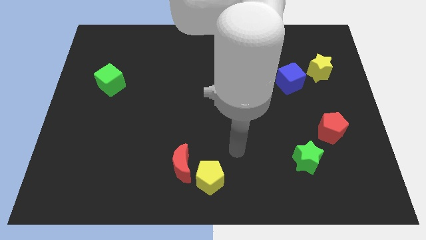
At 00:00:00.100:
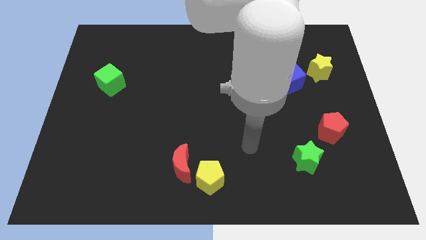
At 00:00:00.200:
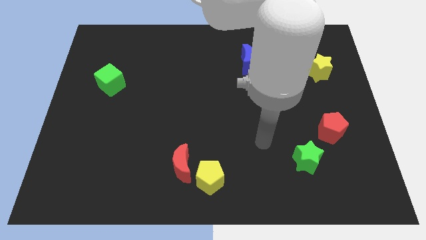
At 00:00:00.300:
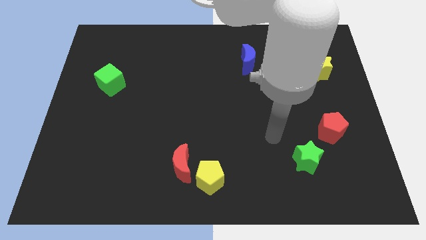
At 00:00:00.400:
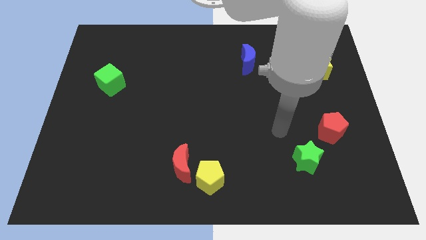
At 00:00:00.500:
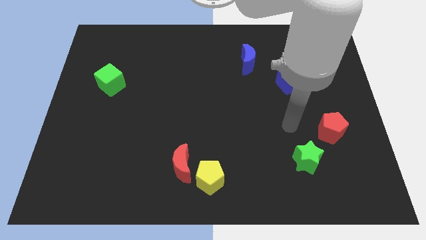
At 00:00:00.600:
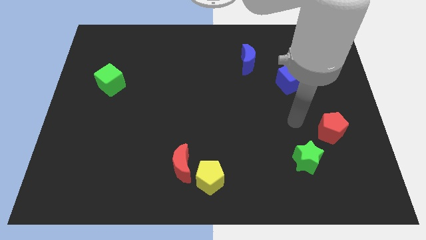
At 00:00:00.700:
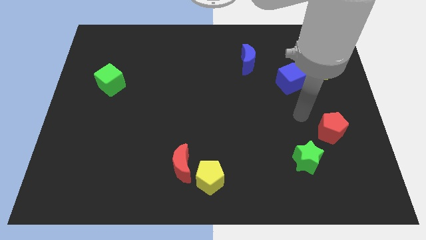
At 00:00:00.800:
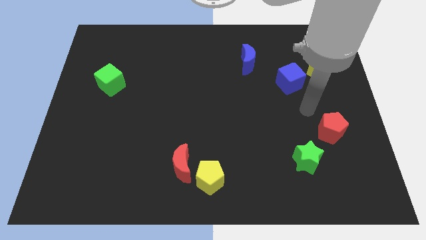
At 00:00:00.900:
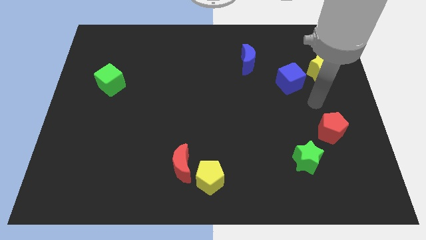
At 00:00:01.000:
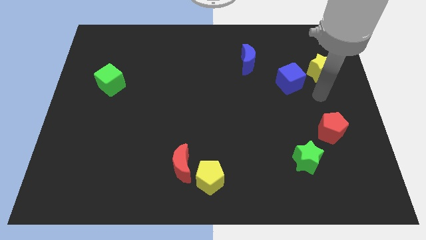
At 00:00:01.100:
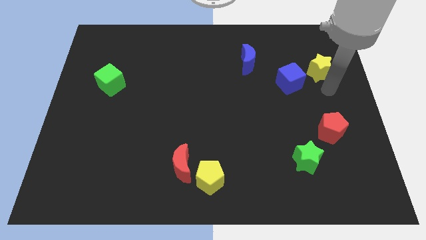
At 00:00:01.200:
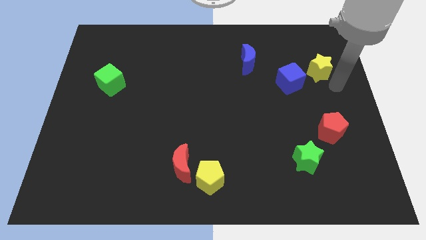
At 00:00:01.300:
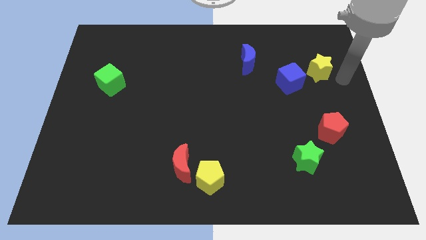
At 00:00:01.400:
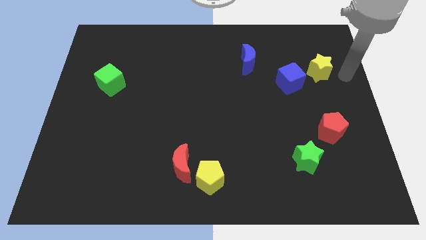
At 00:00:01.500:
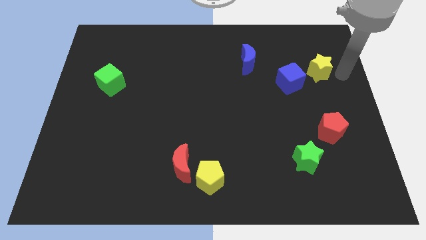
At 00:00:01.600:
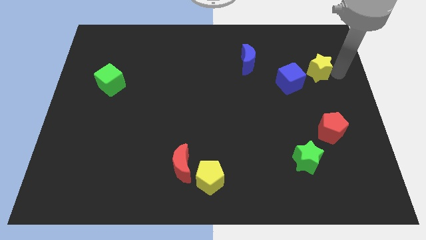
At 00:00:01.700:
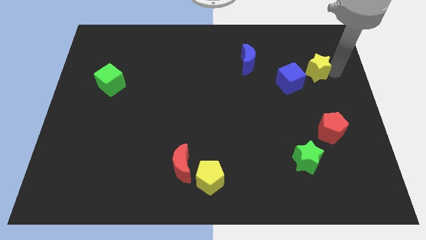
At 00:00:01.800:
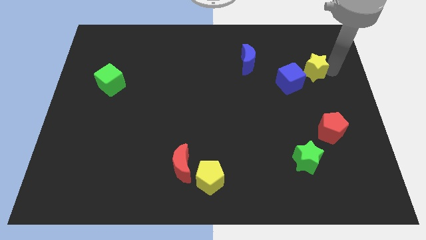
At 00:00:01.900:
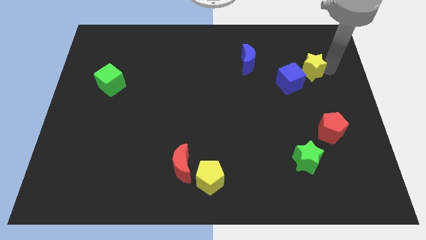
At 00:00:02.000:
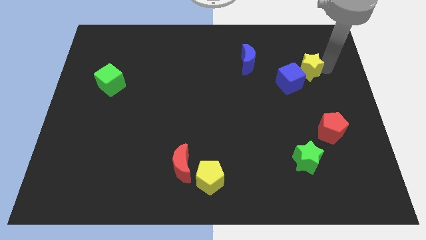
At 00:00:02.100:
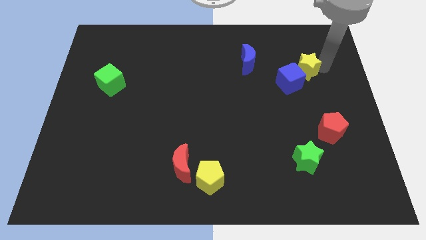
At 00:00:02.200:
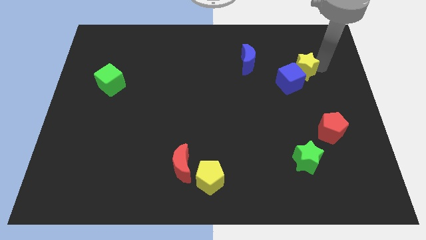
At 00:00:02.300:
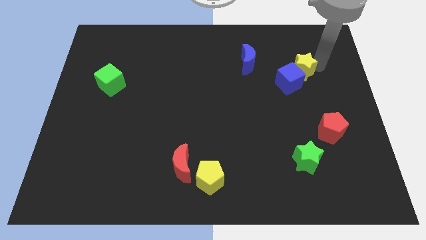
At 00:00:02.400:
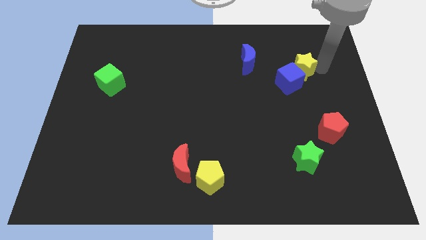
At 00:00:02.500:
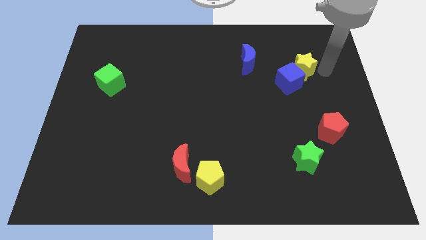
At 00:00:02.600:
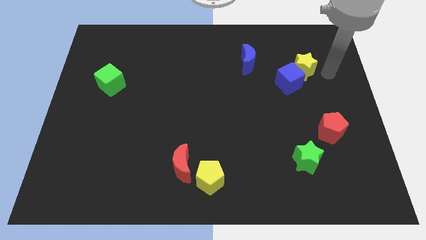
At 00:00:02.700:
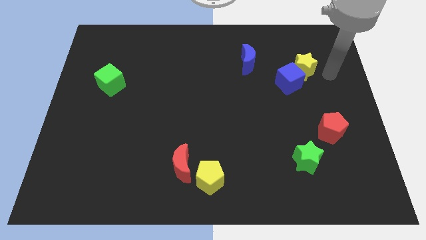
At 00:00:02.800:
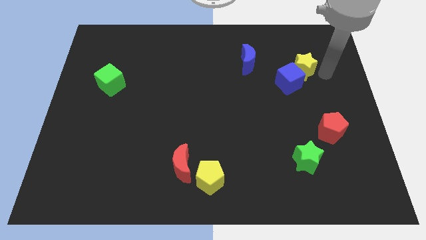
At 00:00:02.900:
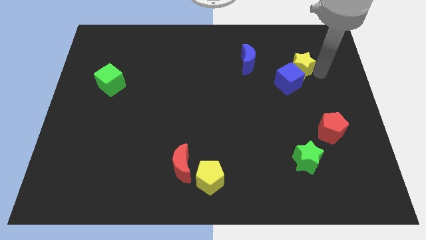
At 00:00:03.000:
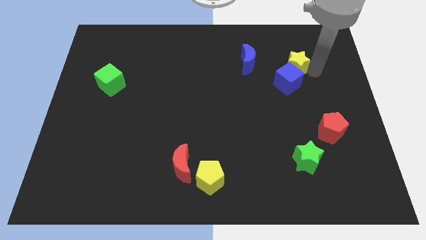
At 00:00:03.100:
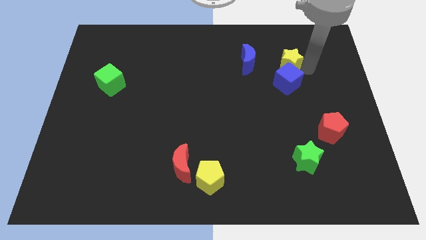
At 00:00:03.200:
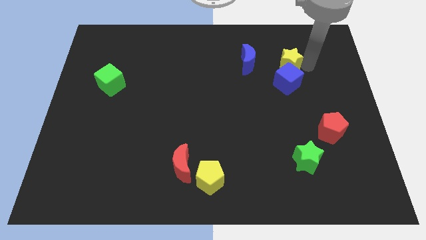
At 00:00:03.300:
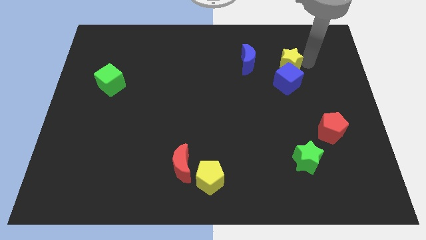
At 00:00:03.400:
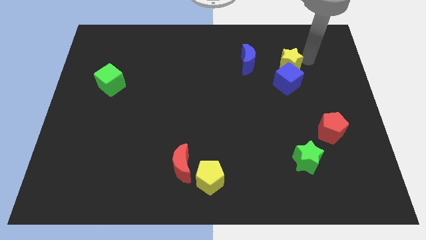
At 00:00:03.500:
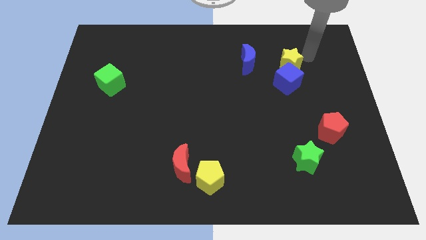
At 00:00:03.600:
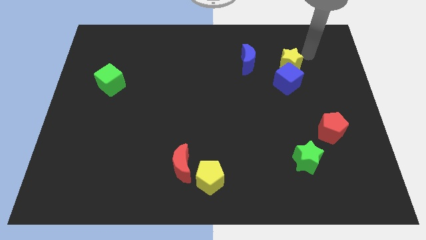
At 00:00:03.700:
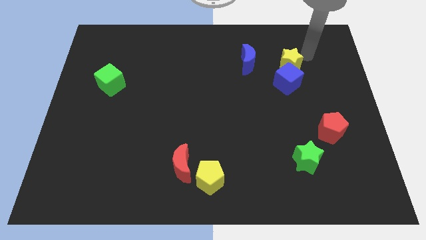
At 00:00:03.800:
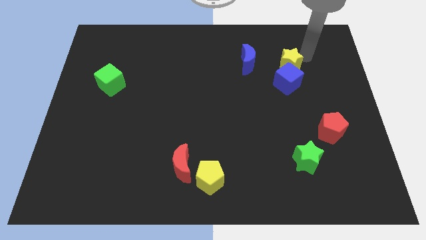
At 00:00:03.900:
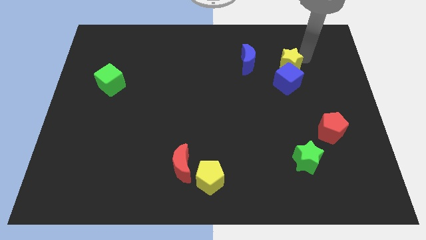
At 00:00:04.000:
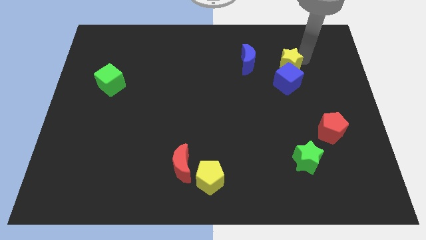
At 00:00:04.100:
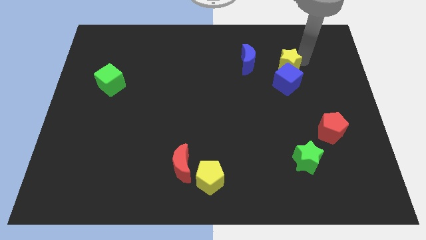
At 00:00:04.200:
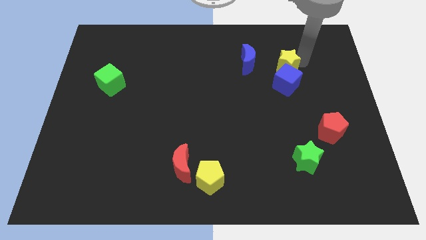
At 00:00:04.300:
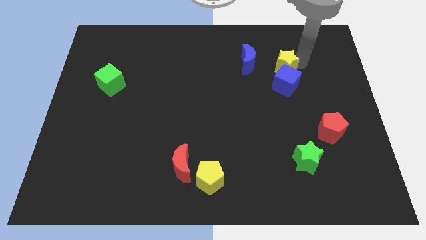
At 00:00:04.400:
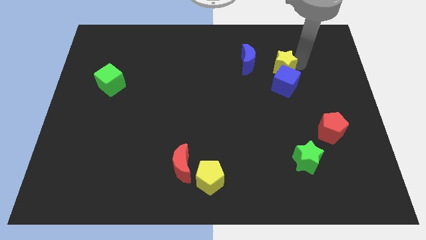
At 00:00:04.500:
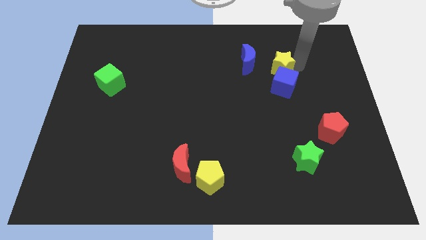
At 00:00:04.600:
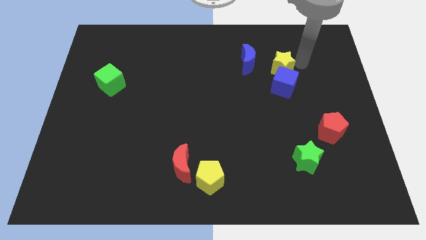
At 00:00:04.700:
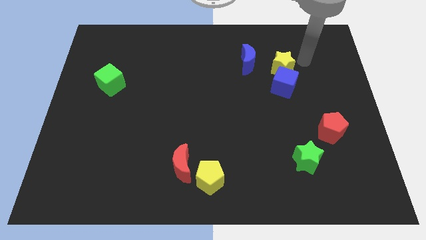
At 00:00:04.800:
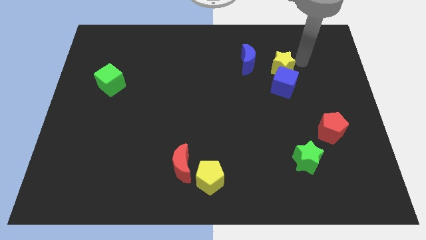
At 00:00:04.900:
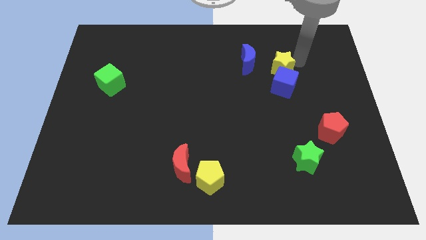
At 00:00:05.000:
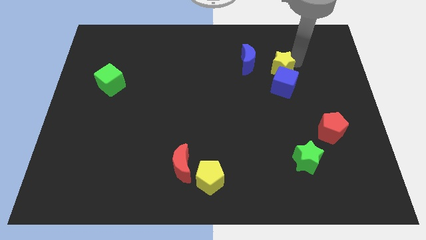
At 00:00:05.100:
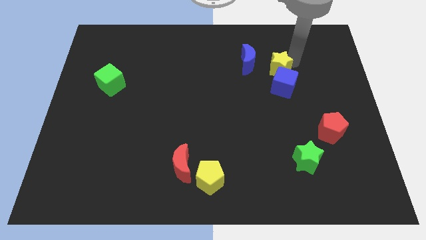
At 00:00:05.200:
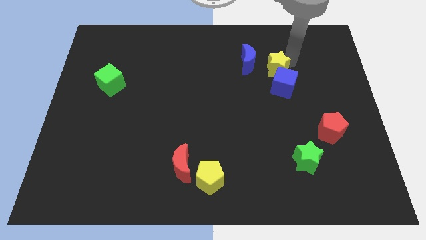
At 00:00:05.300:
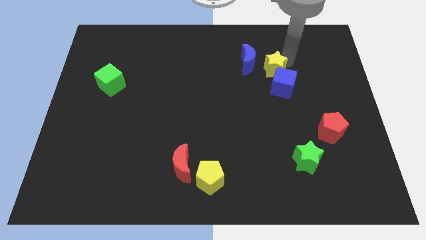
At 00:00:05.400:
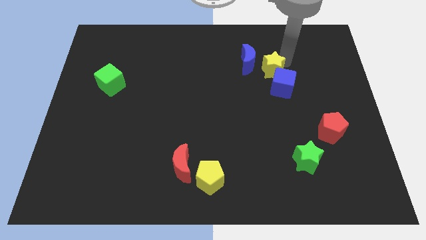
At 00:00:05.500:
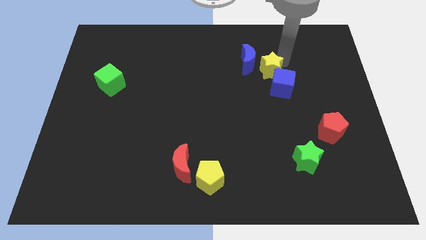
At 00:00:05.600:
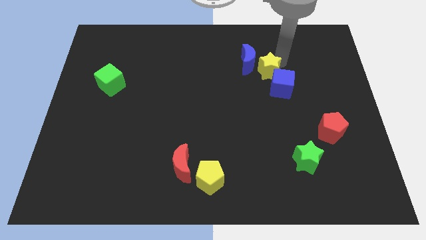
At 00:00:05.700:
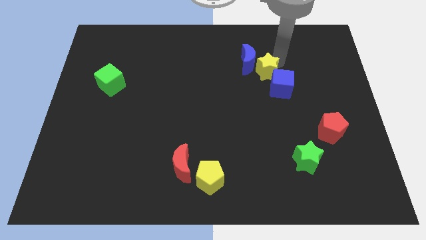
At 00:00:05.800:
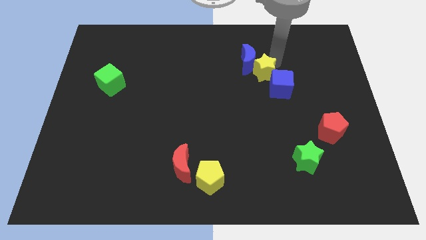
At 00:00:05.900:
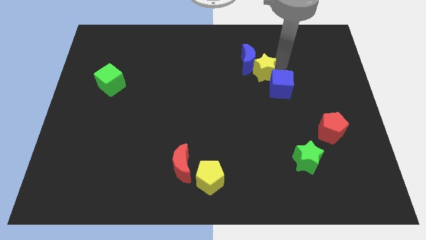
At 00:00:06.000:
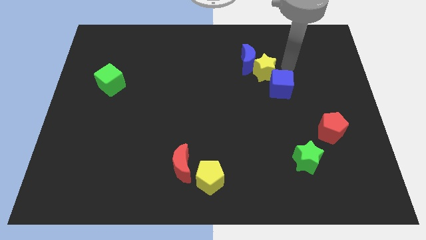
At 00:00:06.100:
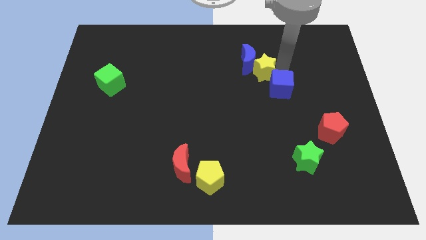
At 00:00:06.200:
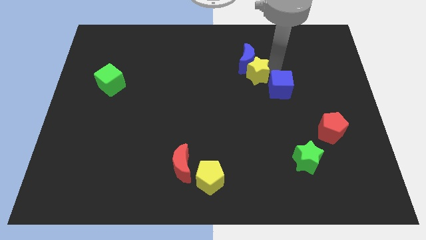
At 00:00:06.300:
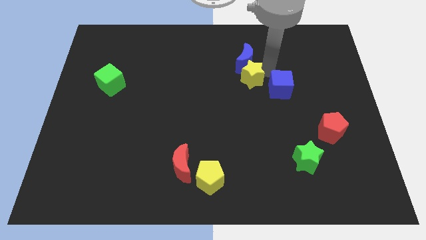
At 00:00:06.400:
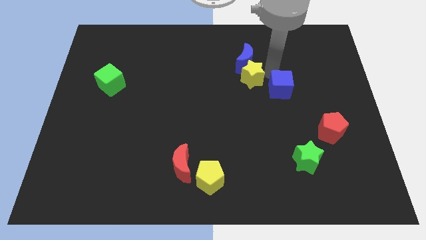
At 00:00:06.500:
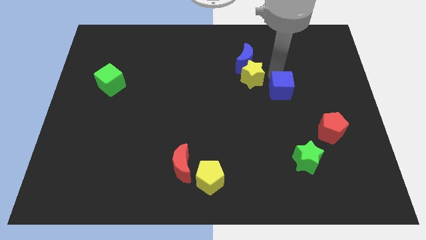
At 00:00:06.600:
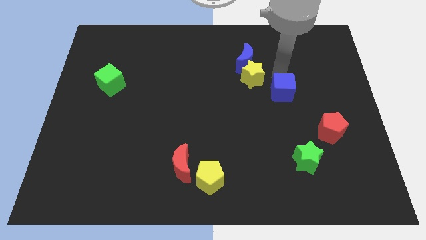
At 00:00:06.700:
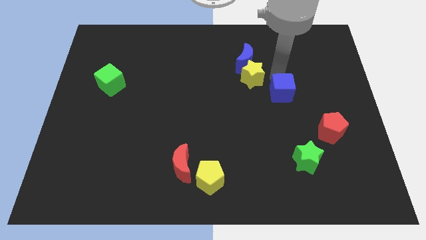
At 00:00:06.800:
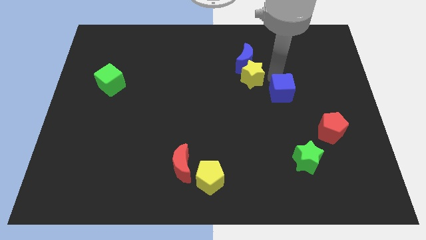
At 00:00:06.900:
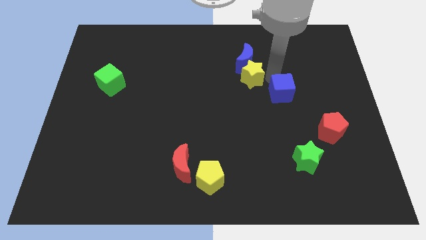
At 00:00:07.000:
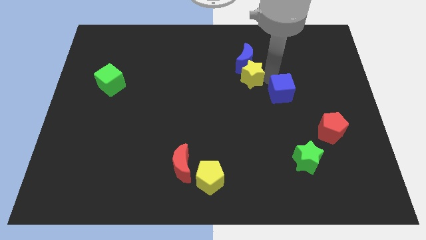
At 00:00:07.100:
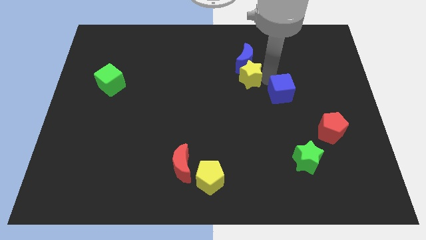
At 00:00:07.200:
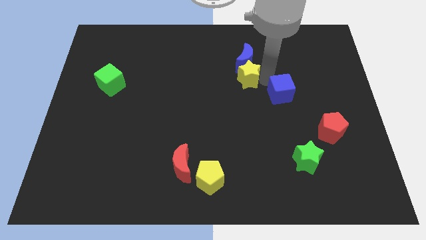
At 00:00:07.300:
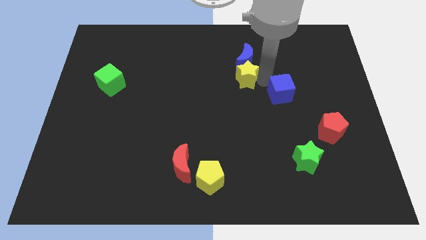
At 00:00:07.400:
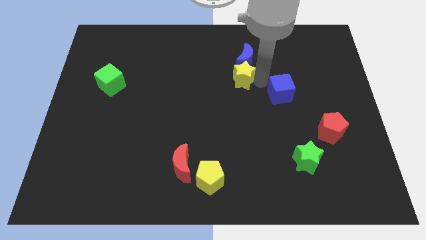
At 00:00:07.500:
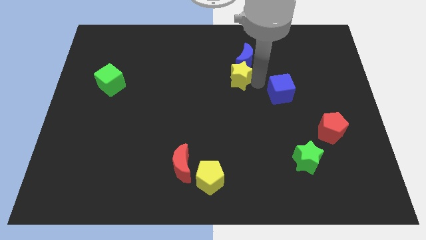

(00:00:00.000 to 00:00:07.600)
push the yellow star to the left

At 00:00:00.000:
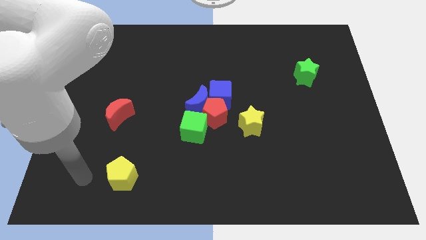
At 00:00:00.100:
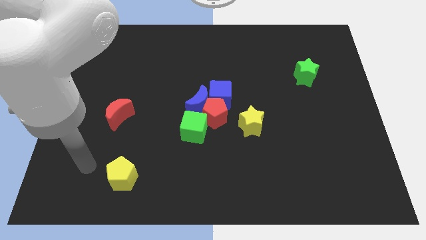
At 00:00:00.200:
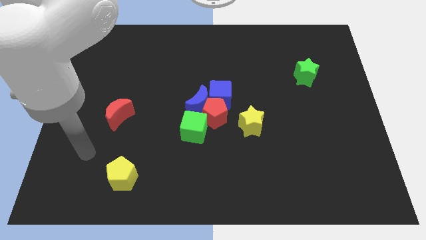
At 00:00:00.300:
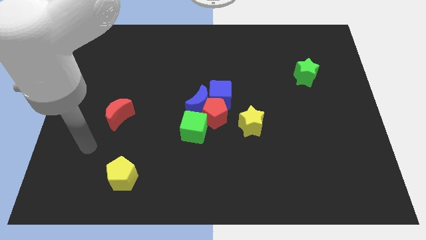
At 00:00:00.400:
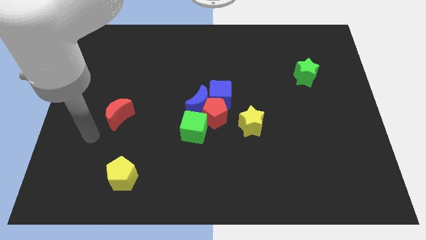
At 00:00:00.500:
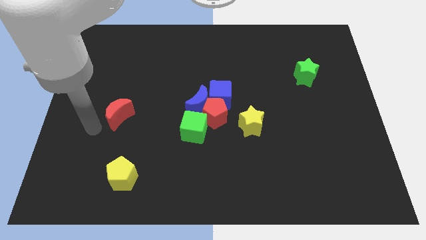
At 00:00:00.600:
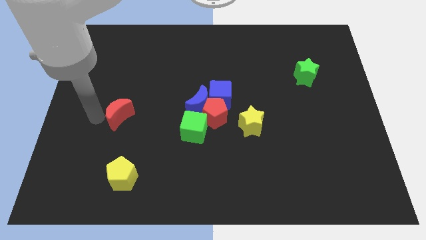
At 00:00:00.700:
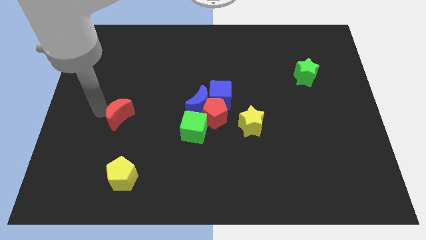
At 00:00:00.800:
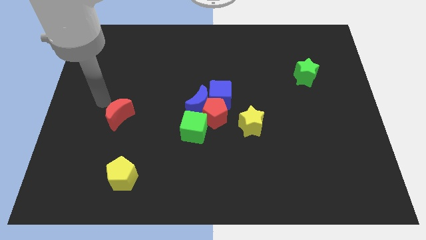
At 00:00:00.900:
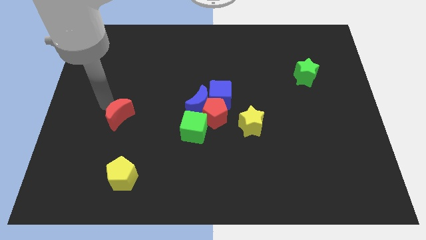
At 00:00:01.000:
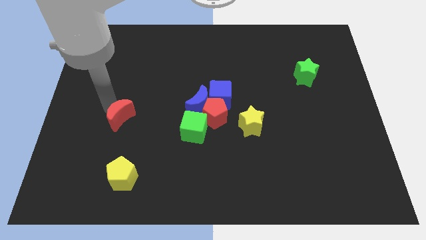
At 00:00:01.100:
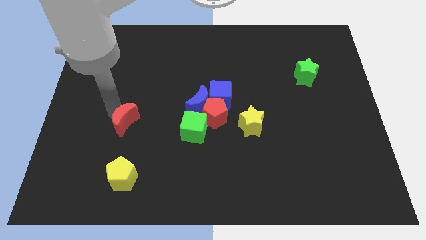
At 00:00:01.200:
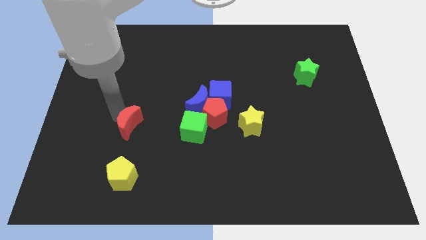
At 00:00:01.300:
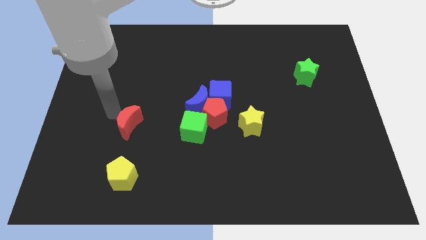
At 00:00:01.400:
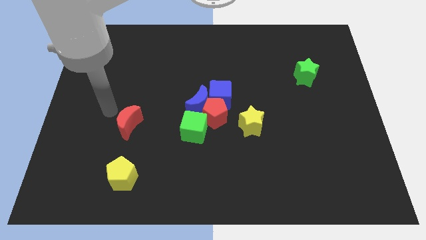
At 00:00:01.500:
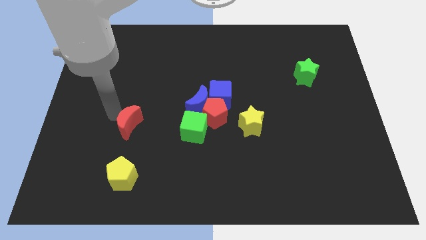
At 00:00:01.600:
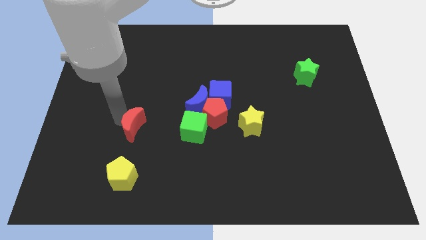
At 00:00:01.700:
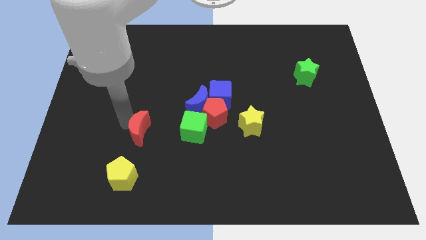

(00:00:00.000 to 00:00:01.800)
move the red moon slightly diagonally down and right
